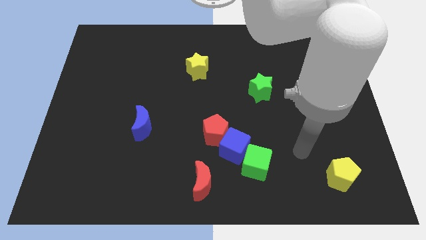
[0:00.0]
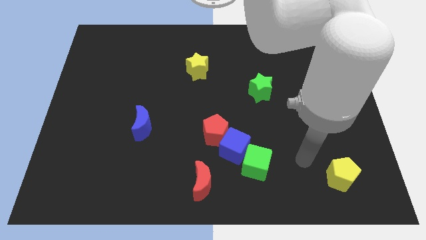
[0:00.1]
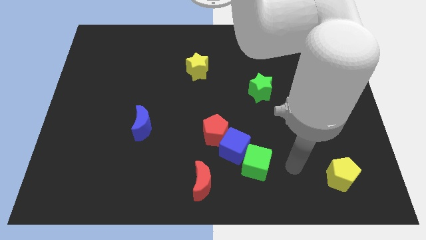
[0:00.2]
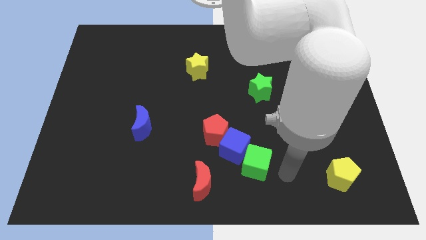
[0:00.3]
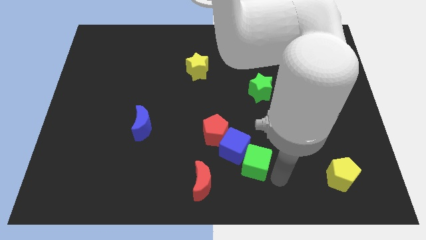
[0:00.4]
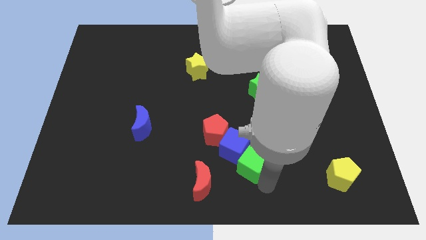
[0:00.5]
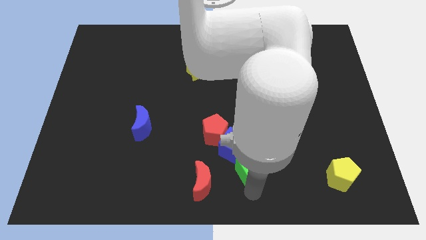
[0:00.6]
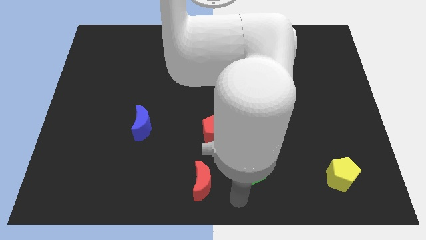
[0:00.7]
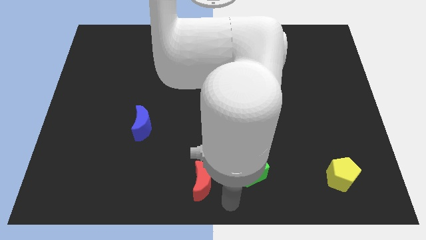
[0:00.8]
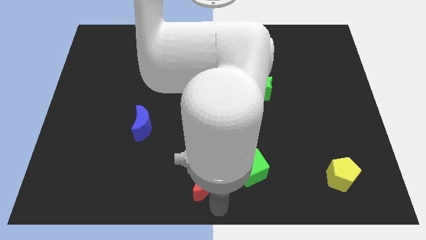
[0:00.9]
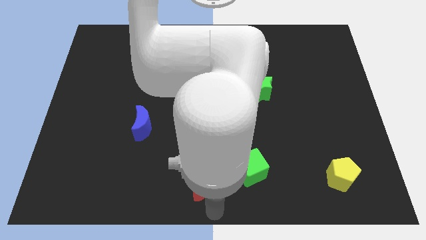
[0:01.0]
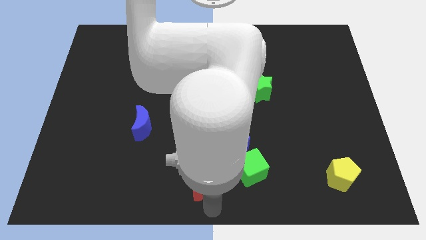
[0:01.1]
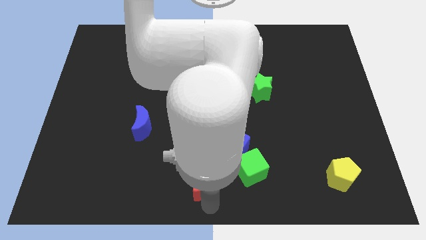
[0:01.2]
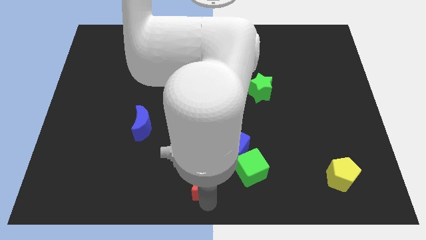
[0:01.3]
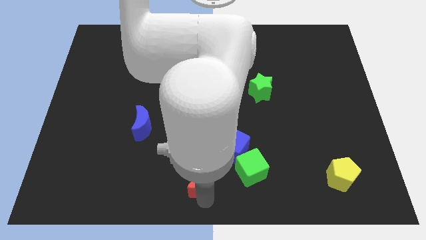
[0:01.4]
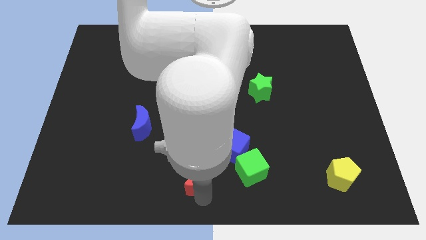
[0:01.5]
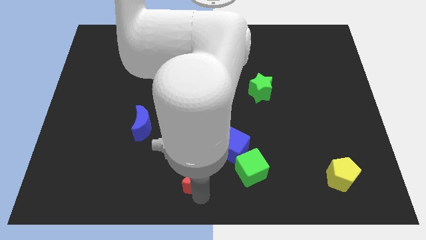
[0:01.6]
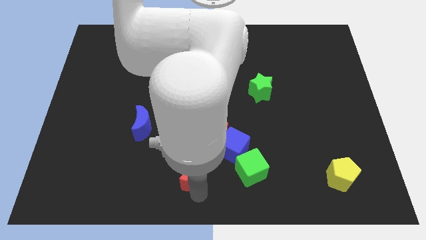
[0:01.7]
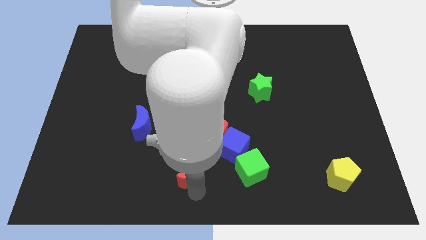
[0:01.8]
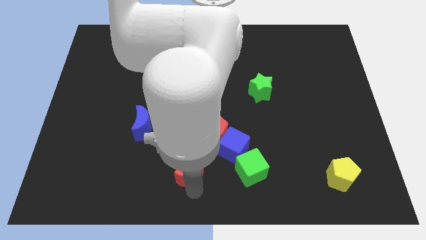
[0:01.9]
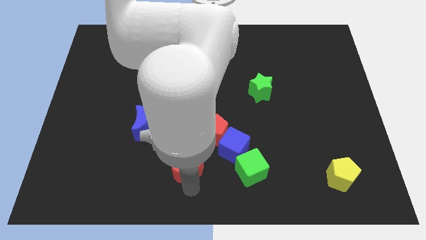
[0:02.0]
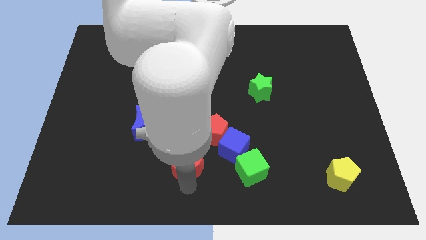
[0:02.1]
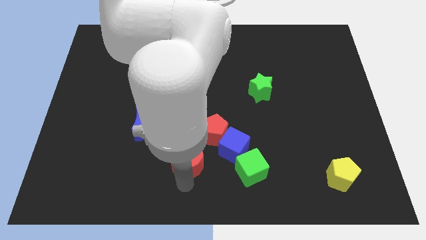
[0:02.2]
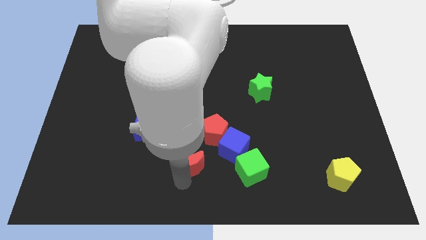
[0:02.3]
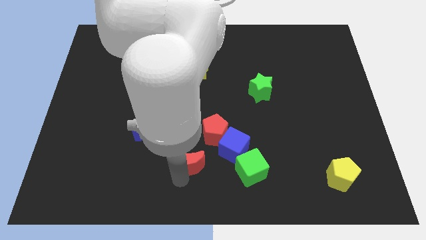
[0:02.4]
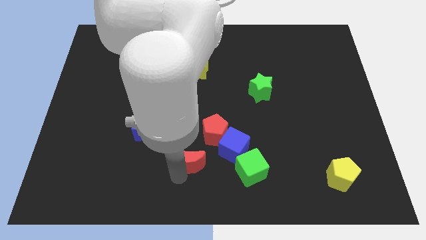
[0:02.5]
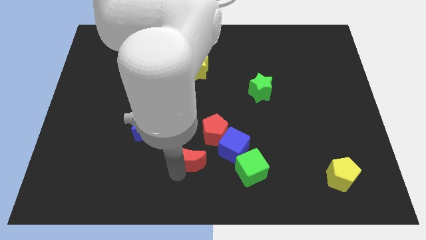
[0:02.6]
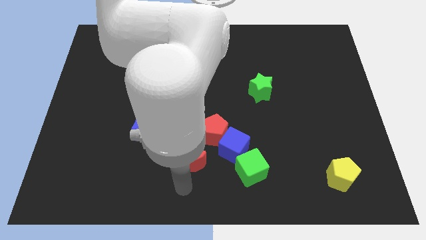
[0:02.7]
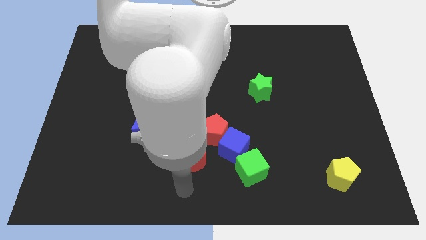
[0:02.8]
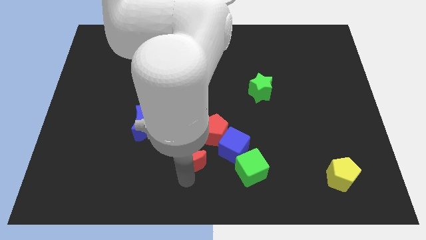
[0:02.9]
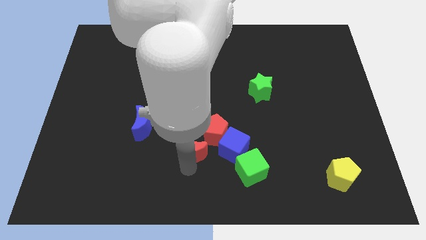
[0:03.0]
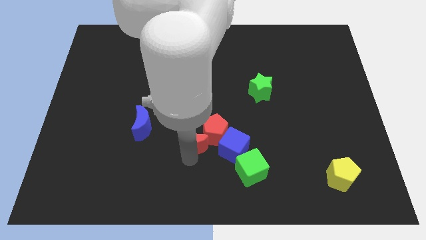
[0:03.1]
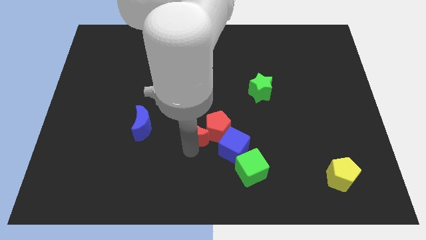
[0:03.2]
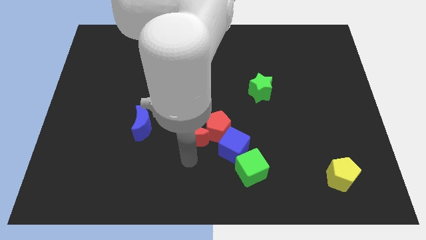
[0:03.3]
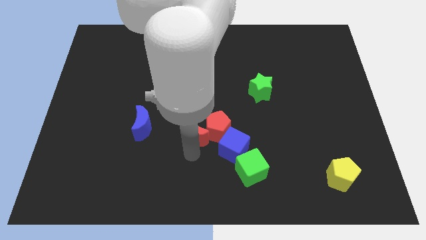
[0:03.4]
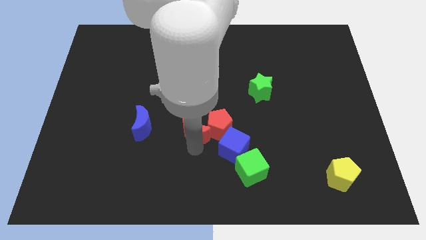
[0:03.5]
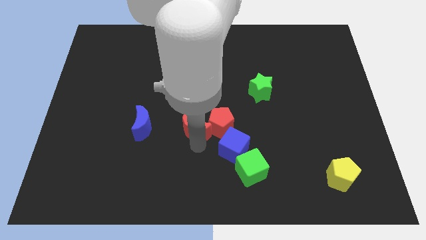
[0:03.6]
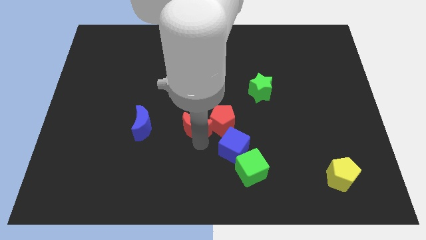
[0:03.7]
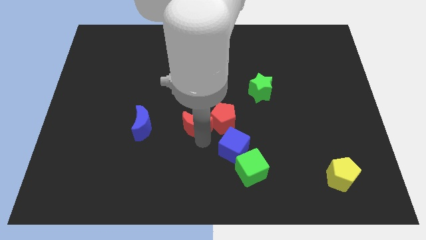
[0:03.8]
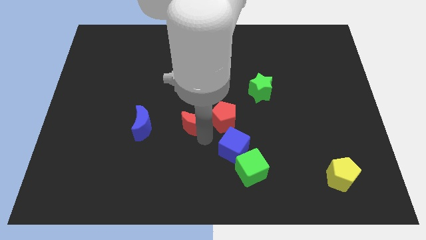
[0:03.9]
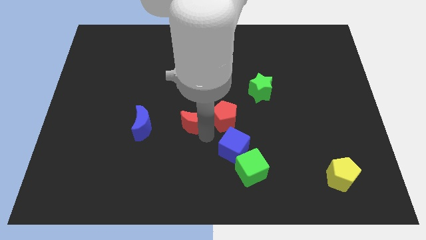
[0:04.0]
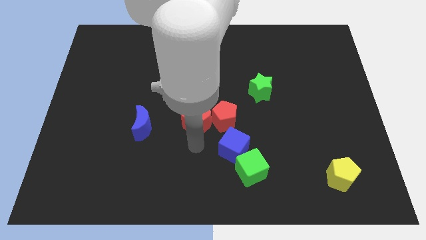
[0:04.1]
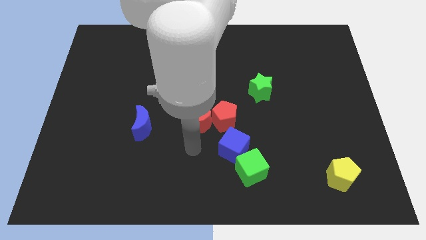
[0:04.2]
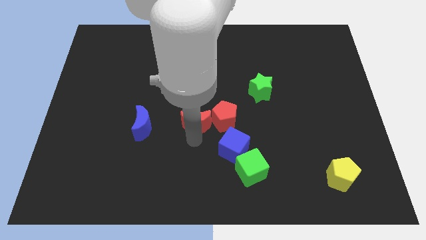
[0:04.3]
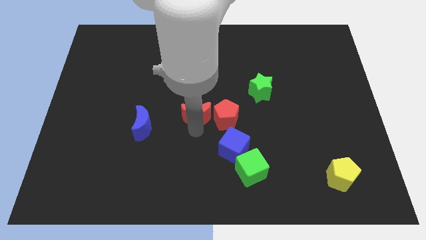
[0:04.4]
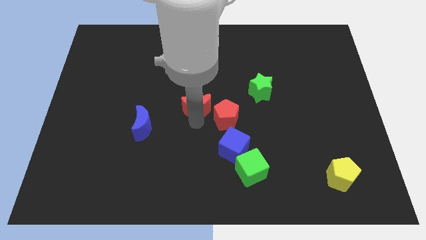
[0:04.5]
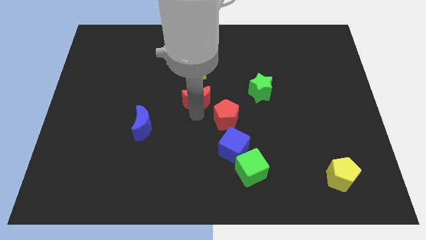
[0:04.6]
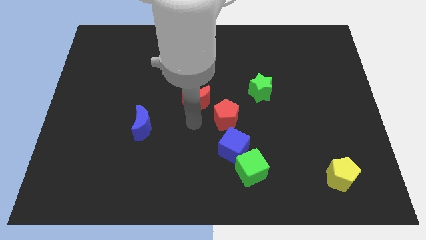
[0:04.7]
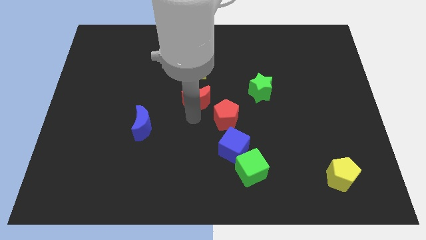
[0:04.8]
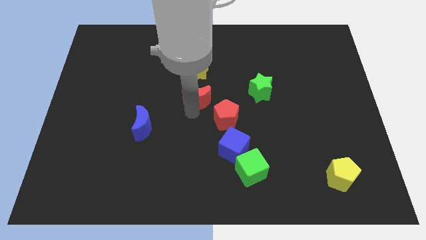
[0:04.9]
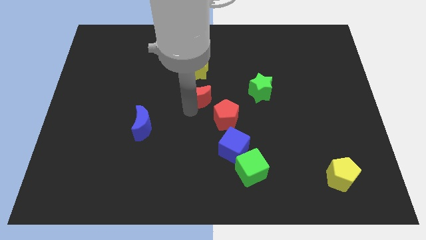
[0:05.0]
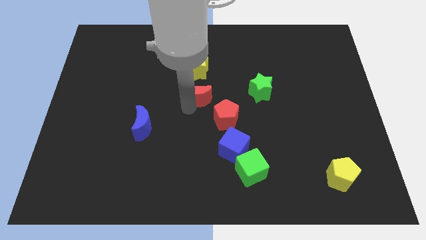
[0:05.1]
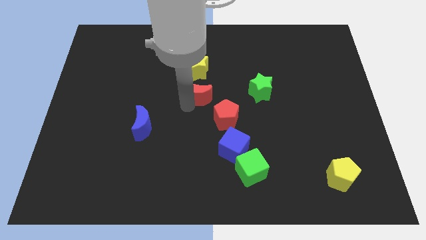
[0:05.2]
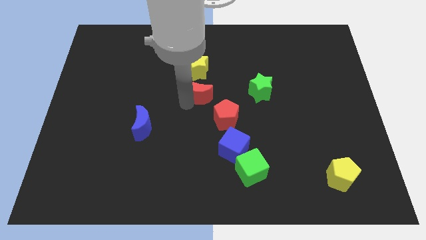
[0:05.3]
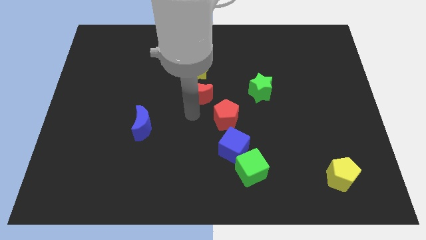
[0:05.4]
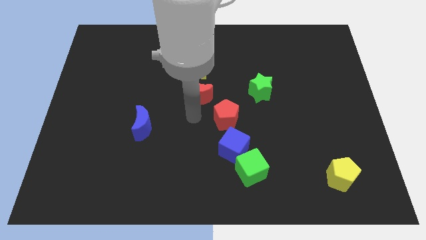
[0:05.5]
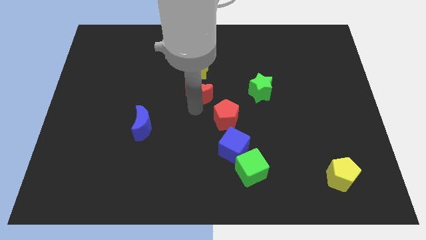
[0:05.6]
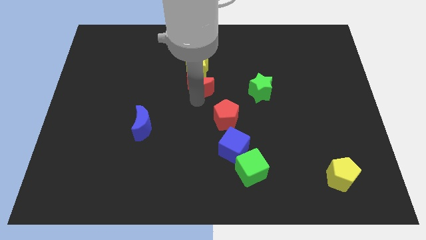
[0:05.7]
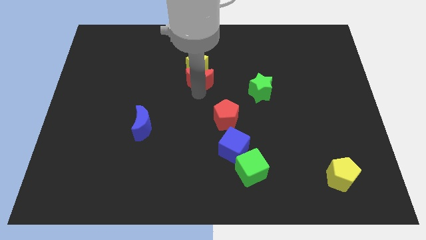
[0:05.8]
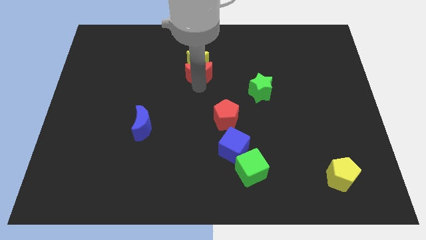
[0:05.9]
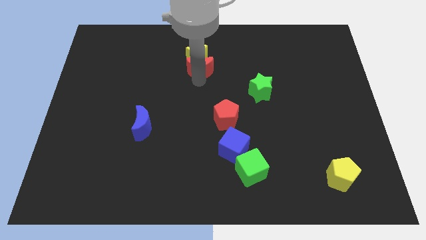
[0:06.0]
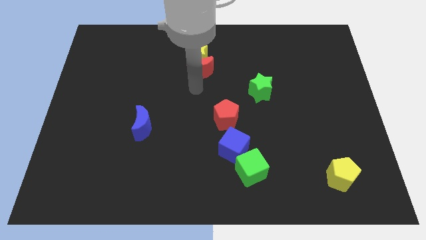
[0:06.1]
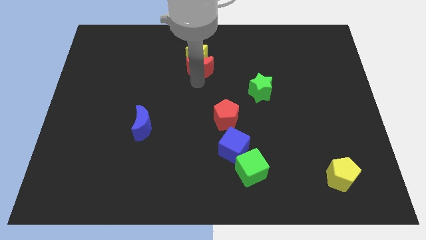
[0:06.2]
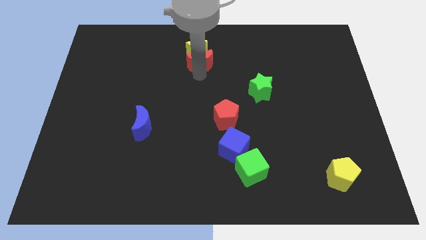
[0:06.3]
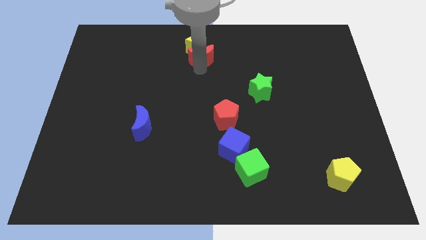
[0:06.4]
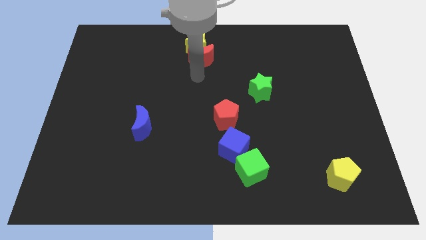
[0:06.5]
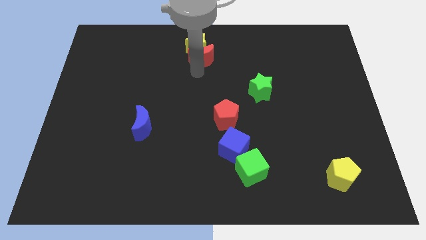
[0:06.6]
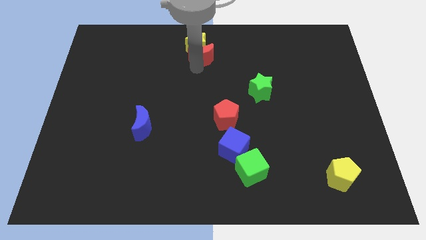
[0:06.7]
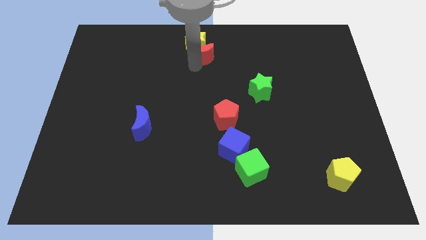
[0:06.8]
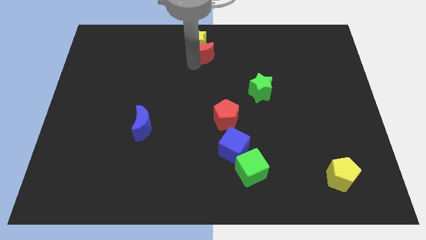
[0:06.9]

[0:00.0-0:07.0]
put the red moon to the top side
